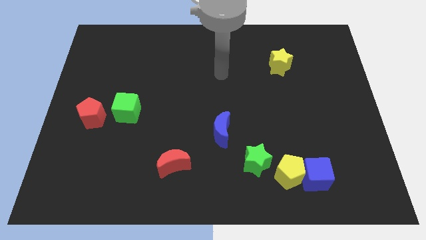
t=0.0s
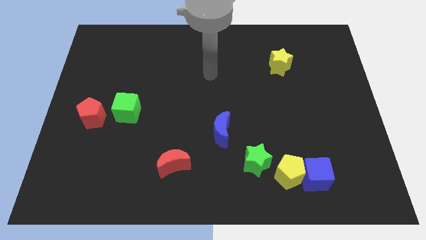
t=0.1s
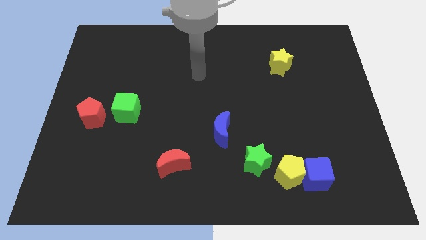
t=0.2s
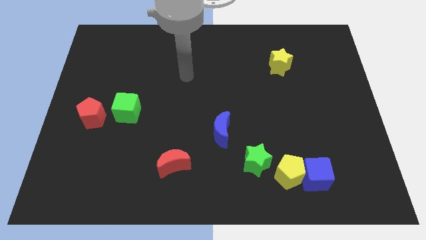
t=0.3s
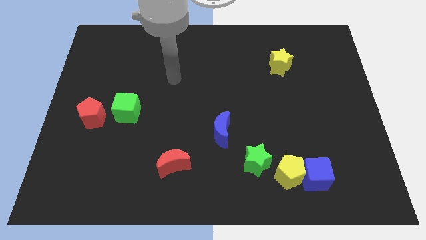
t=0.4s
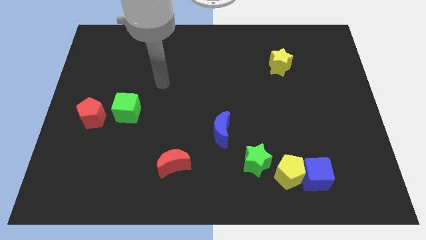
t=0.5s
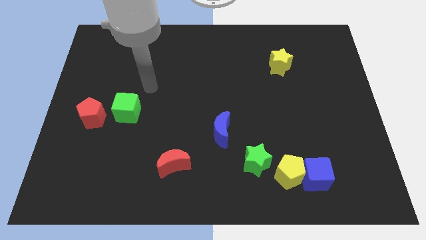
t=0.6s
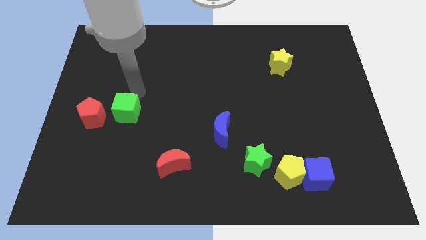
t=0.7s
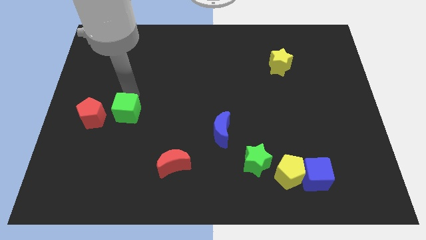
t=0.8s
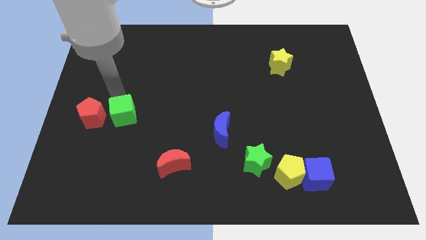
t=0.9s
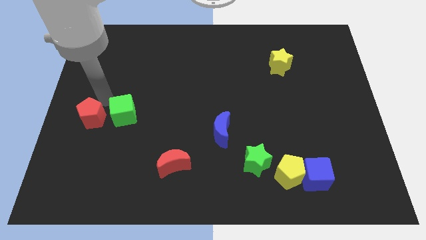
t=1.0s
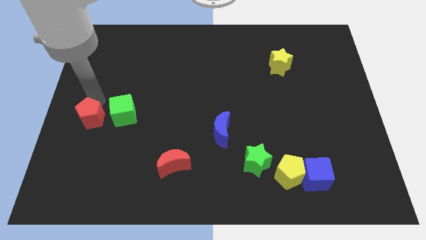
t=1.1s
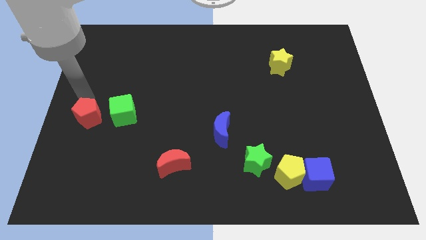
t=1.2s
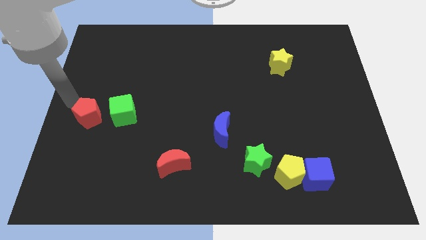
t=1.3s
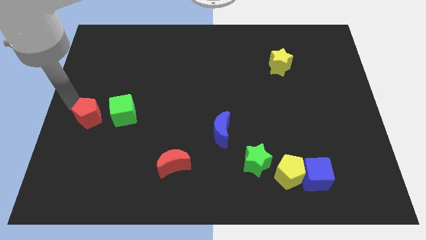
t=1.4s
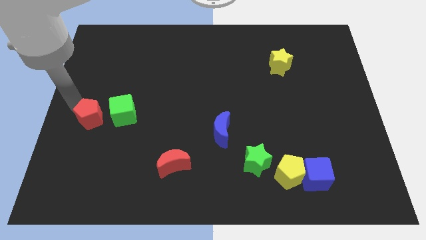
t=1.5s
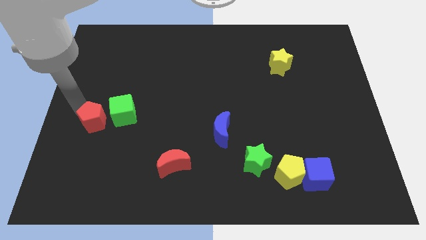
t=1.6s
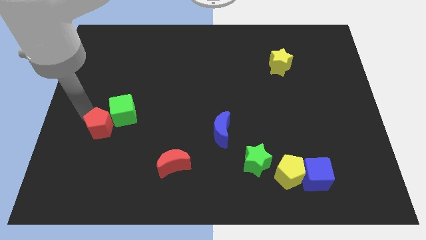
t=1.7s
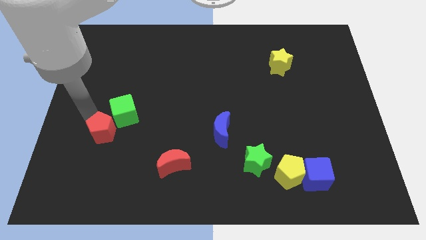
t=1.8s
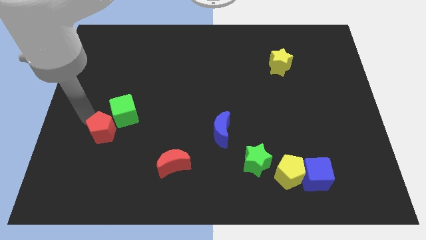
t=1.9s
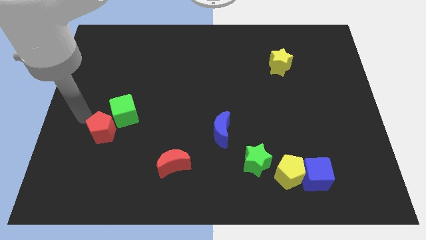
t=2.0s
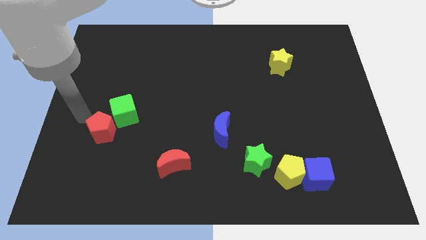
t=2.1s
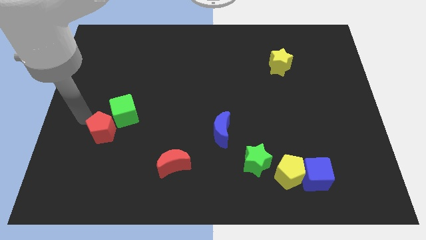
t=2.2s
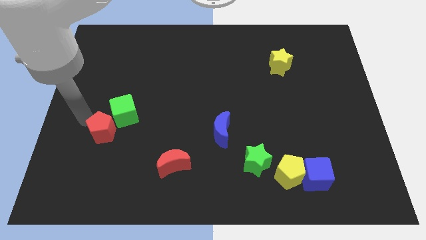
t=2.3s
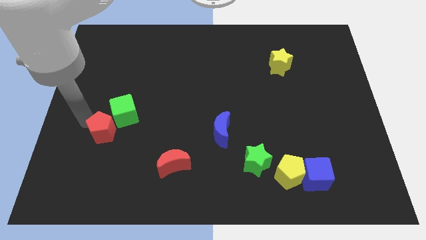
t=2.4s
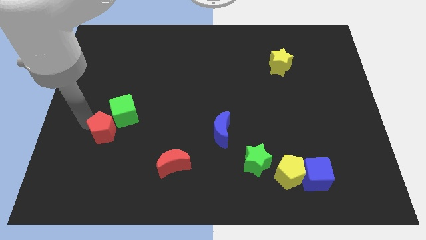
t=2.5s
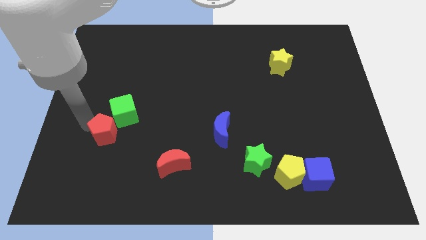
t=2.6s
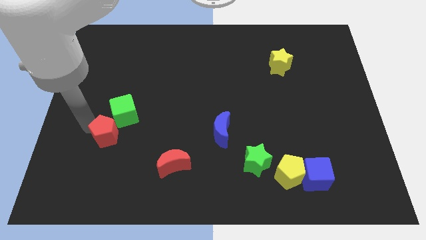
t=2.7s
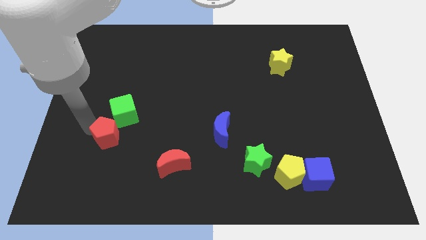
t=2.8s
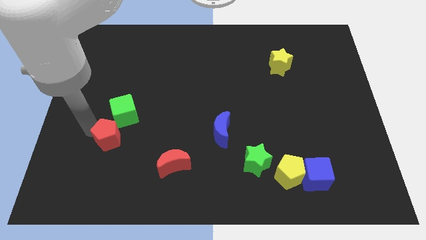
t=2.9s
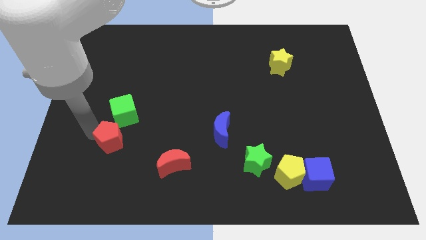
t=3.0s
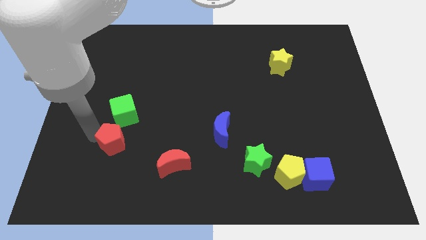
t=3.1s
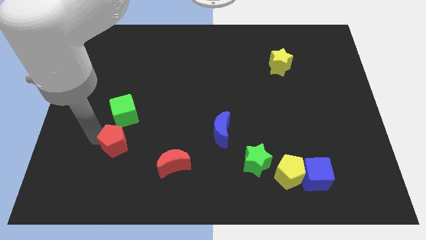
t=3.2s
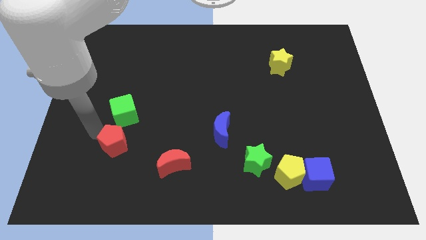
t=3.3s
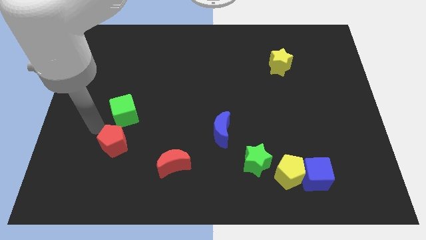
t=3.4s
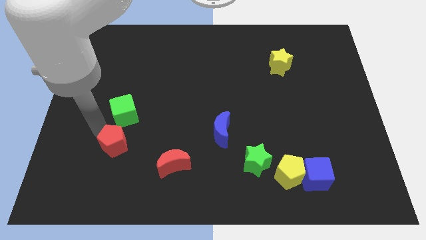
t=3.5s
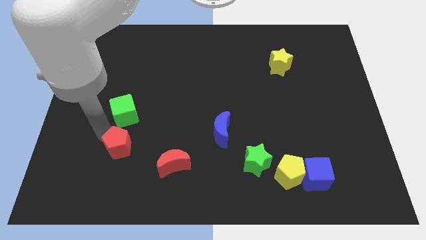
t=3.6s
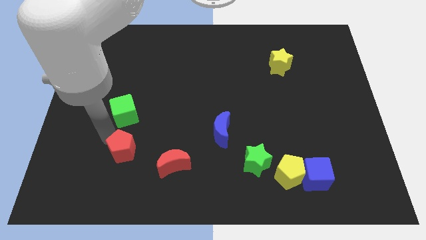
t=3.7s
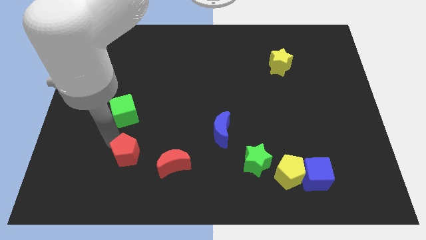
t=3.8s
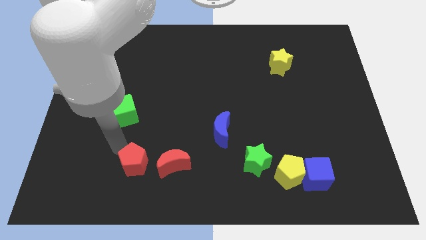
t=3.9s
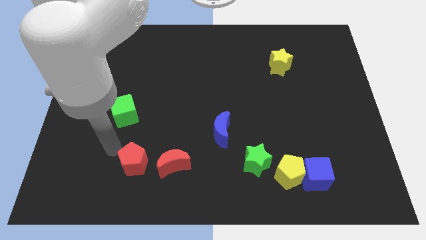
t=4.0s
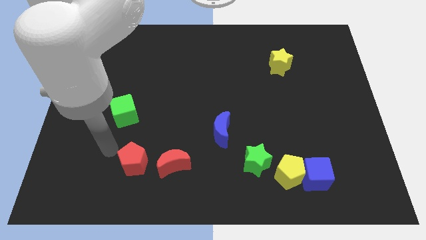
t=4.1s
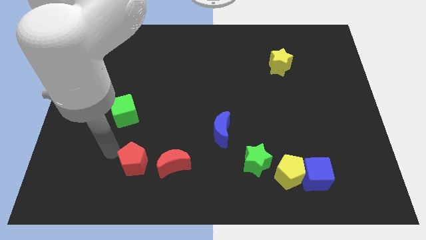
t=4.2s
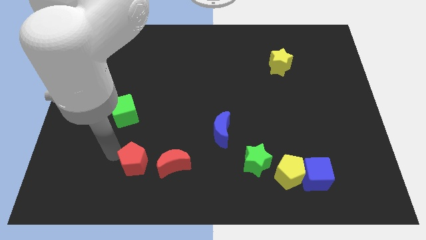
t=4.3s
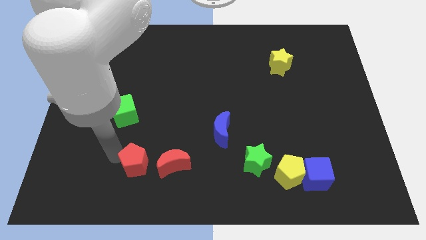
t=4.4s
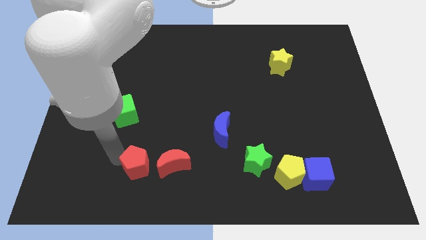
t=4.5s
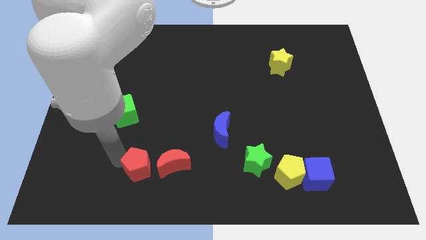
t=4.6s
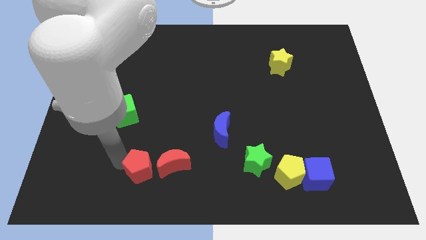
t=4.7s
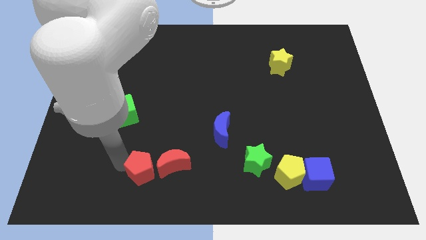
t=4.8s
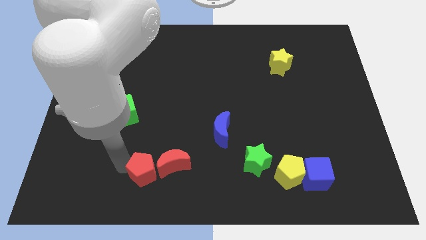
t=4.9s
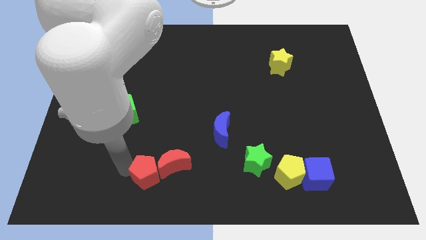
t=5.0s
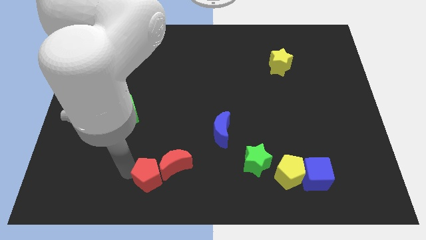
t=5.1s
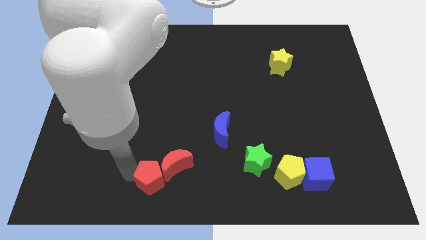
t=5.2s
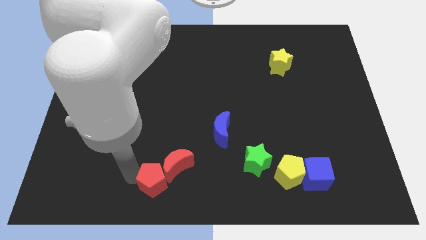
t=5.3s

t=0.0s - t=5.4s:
put the red pentagon to the bottom side

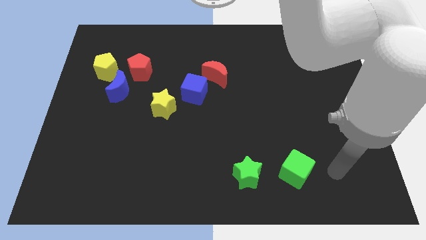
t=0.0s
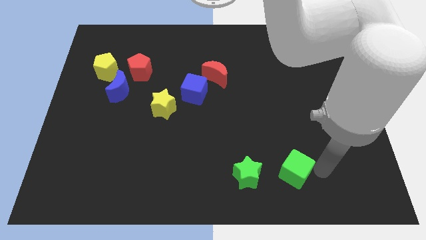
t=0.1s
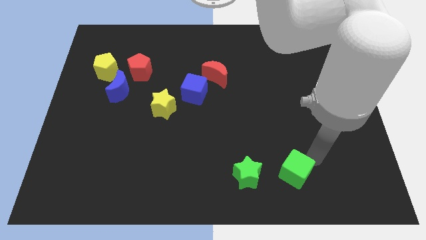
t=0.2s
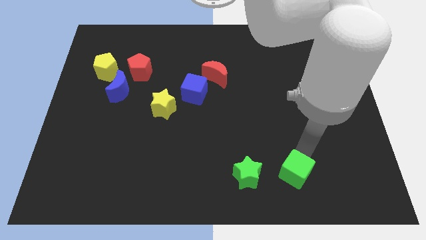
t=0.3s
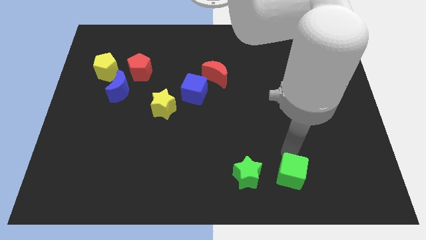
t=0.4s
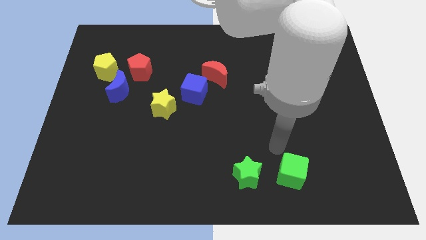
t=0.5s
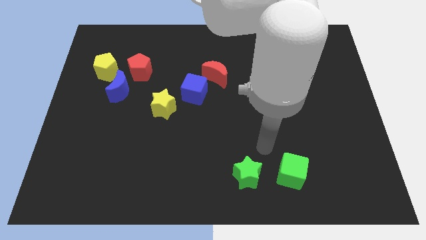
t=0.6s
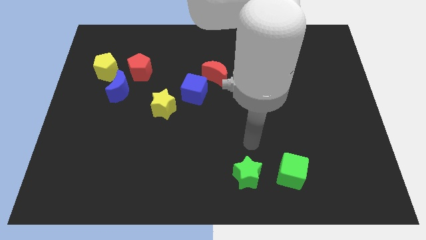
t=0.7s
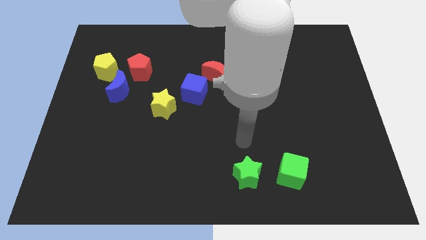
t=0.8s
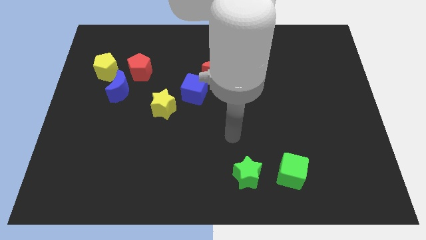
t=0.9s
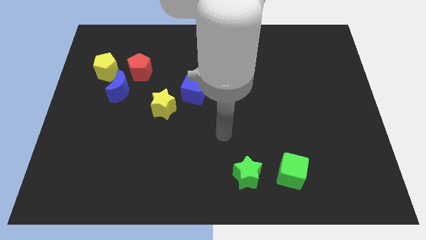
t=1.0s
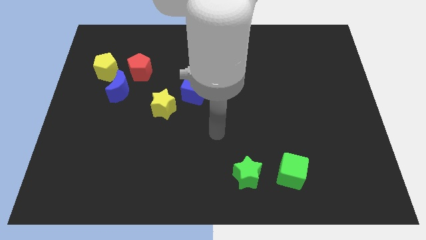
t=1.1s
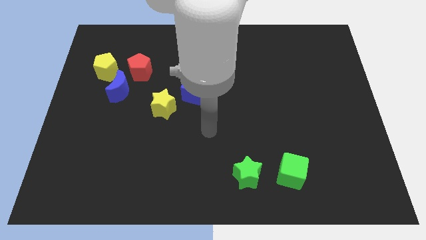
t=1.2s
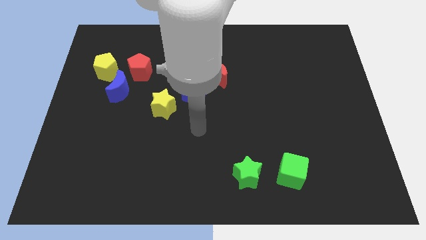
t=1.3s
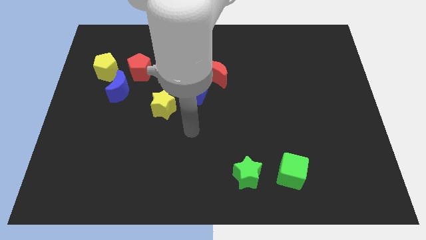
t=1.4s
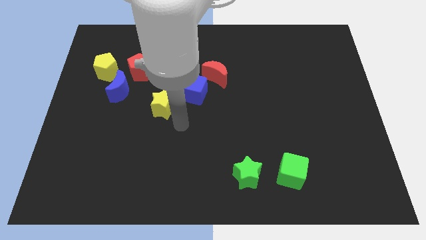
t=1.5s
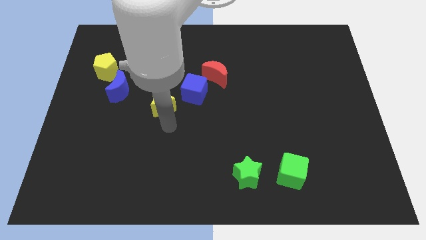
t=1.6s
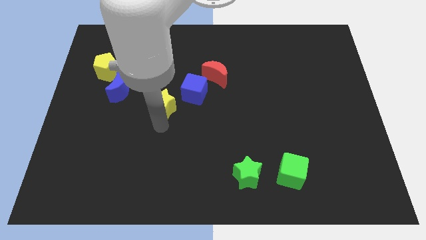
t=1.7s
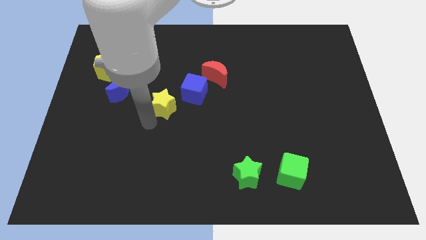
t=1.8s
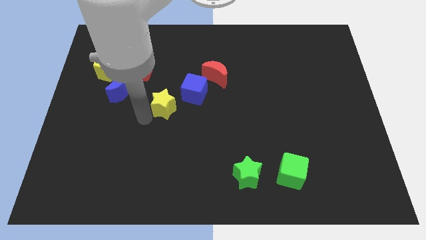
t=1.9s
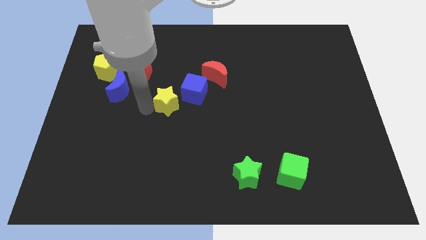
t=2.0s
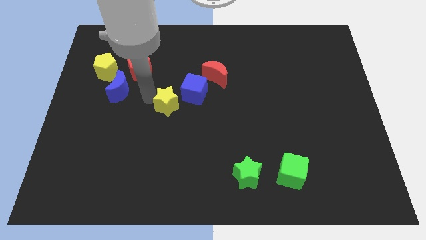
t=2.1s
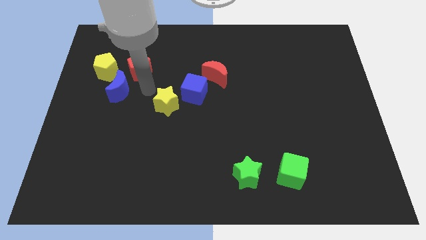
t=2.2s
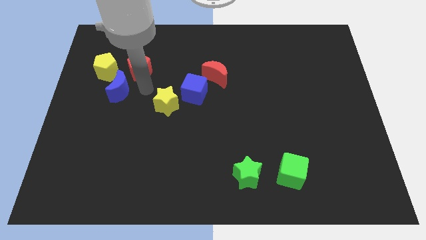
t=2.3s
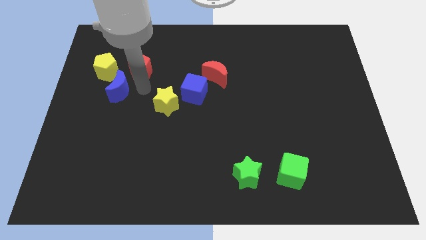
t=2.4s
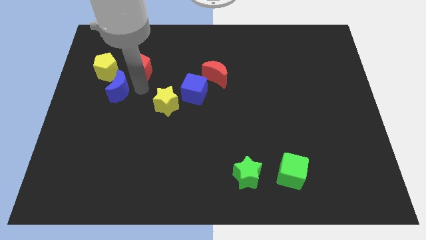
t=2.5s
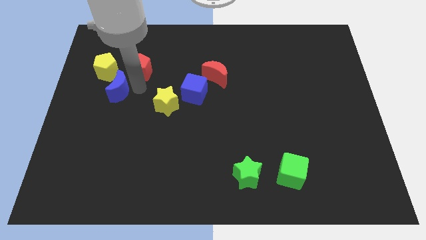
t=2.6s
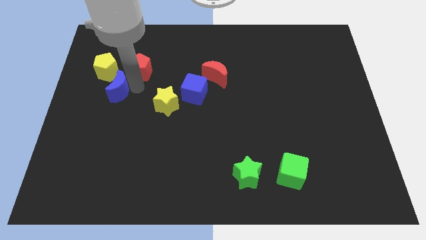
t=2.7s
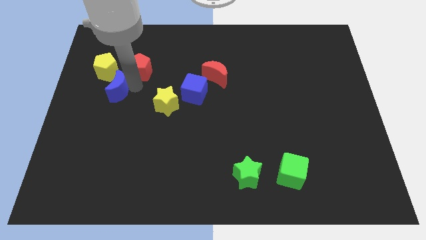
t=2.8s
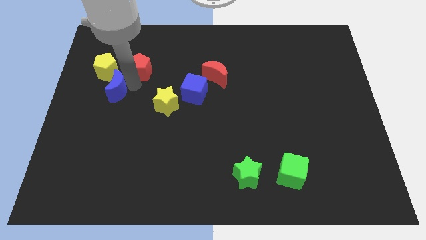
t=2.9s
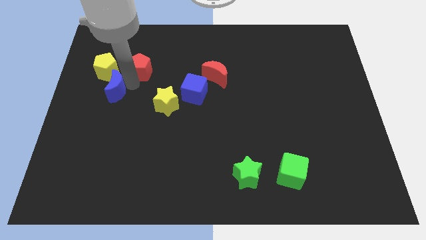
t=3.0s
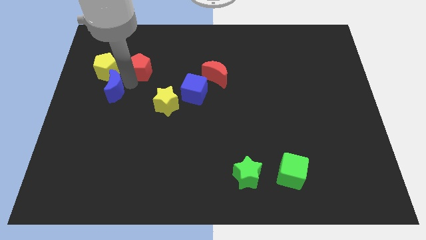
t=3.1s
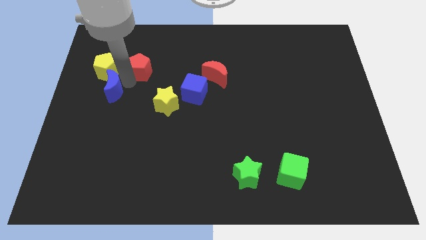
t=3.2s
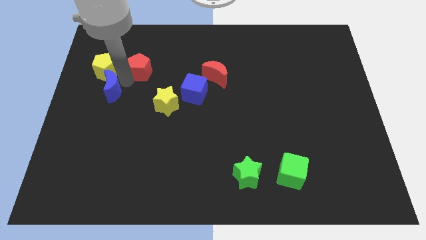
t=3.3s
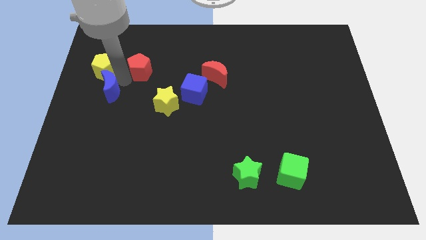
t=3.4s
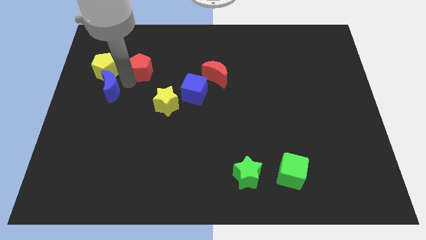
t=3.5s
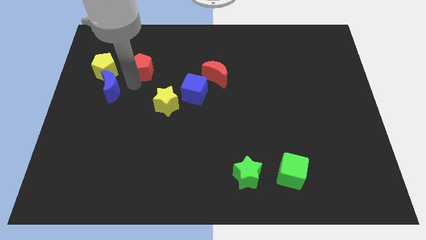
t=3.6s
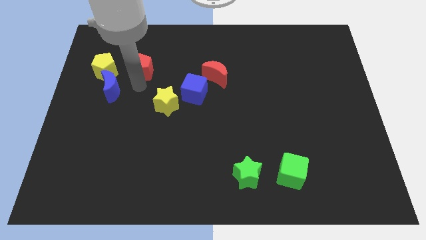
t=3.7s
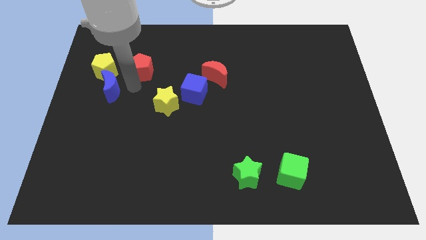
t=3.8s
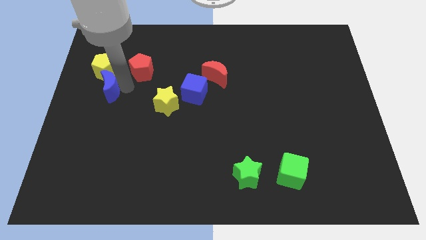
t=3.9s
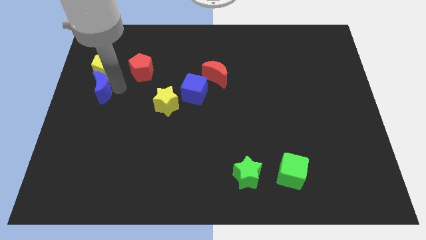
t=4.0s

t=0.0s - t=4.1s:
move the blue moon to the center left
